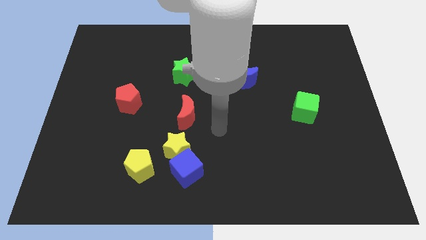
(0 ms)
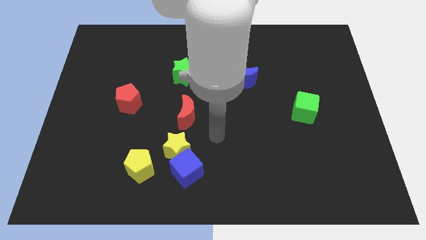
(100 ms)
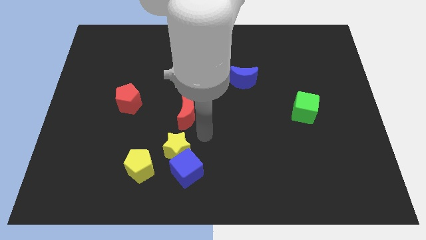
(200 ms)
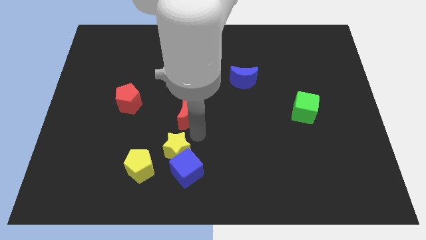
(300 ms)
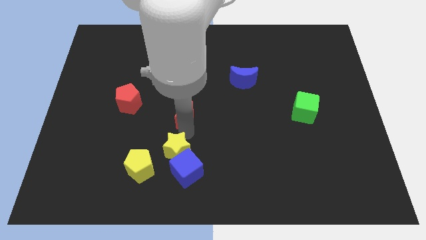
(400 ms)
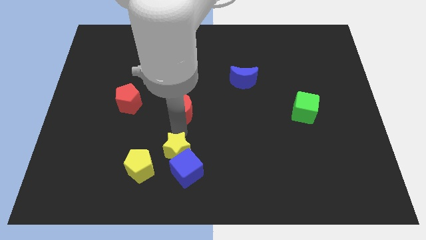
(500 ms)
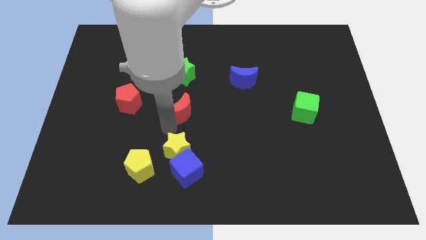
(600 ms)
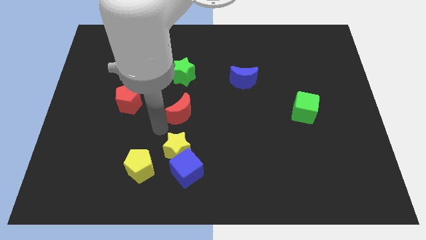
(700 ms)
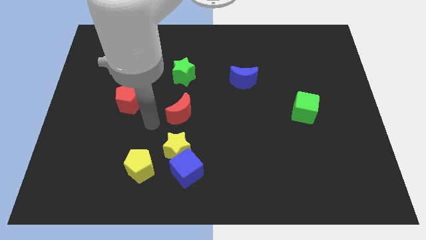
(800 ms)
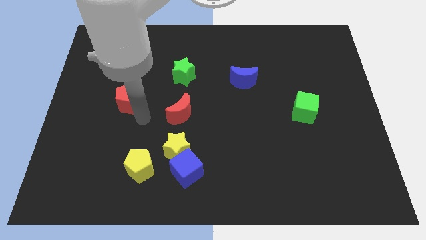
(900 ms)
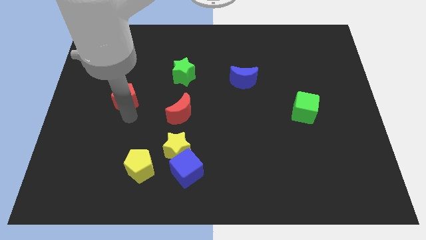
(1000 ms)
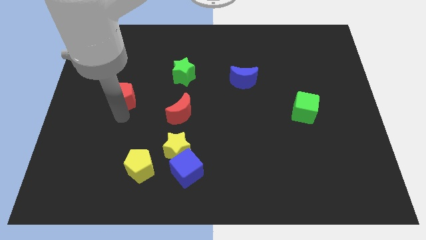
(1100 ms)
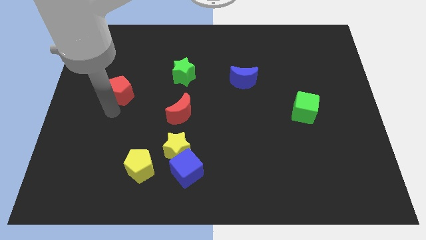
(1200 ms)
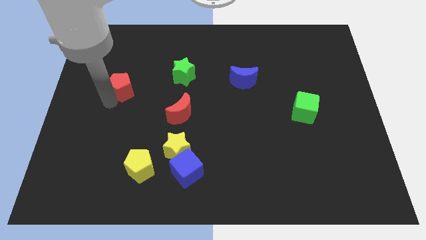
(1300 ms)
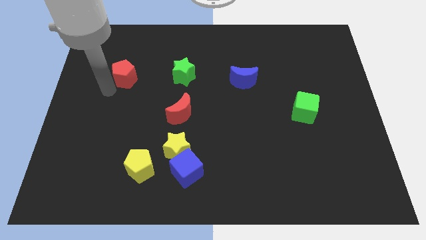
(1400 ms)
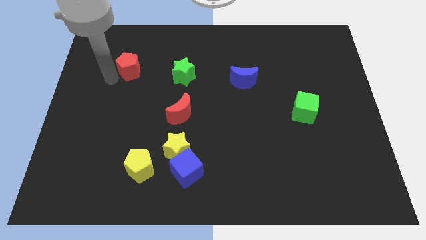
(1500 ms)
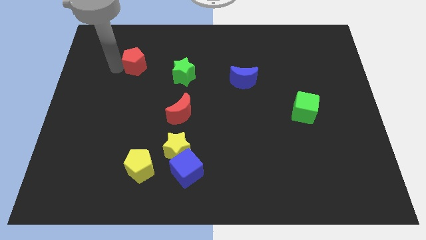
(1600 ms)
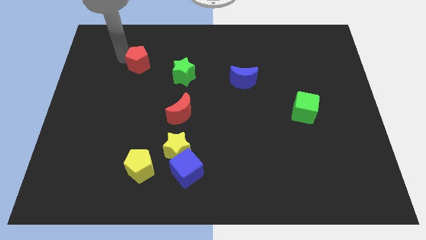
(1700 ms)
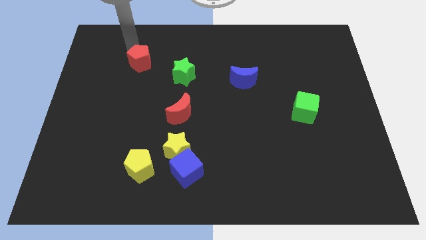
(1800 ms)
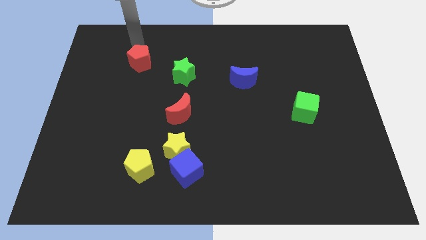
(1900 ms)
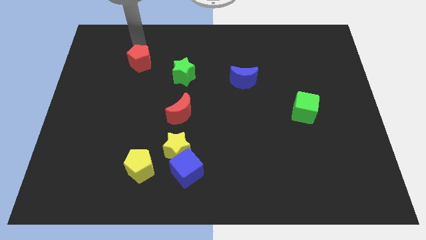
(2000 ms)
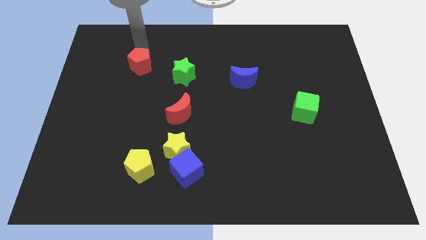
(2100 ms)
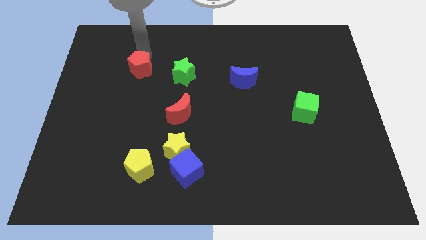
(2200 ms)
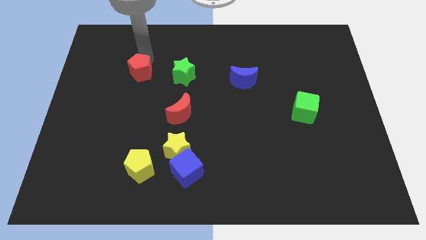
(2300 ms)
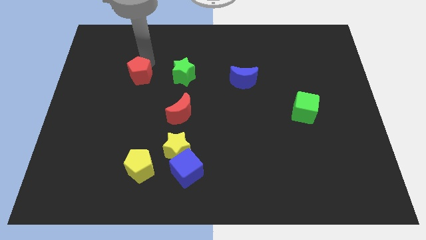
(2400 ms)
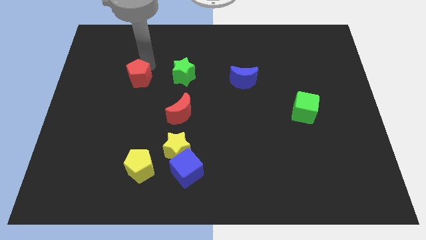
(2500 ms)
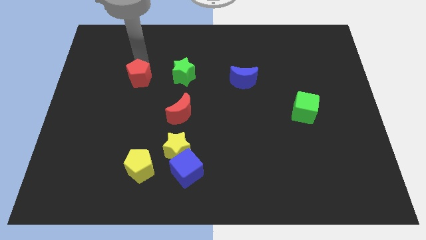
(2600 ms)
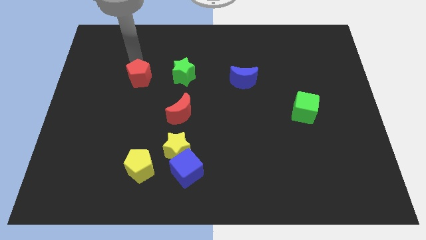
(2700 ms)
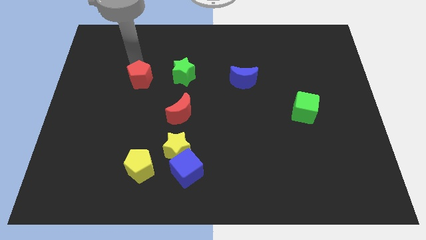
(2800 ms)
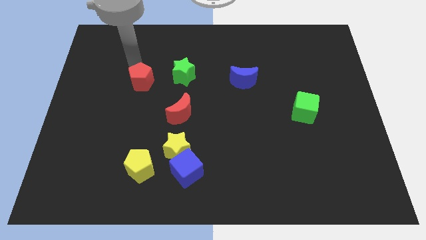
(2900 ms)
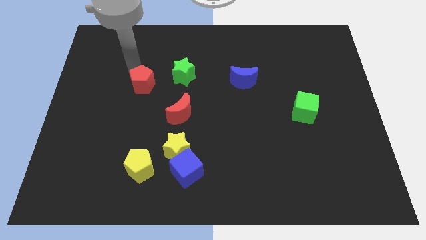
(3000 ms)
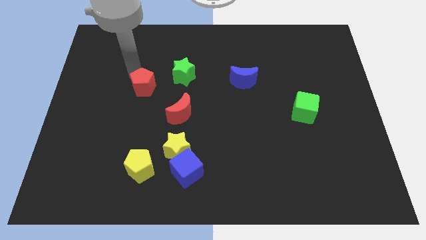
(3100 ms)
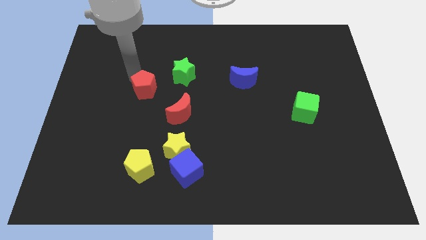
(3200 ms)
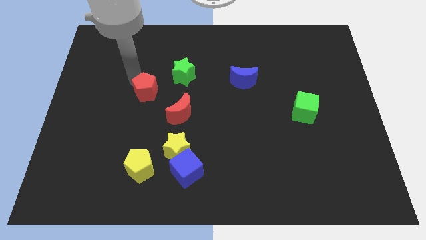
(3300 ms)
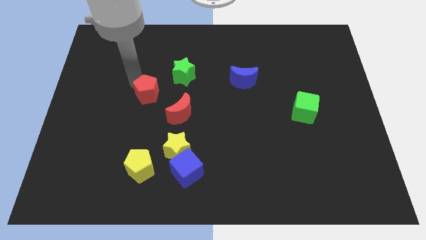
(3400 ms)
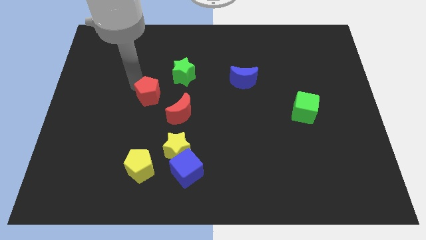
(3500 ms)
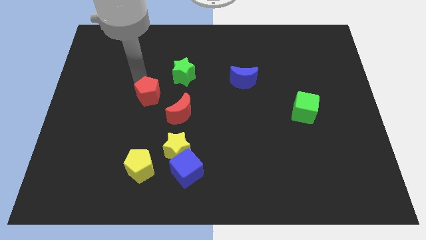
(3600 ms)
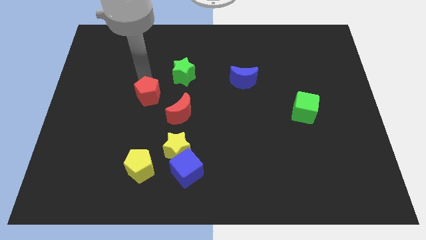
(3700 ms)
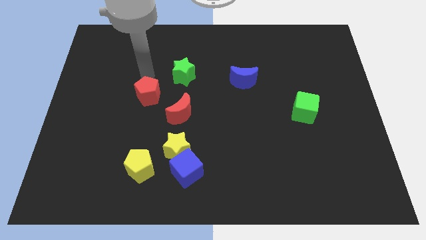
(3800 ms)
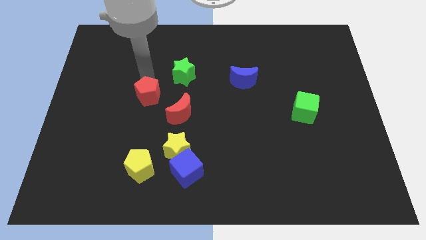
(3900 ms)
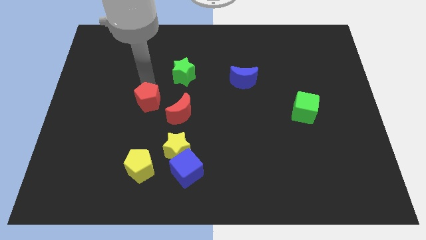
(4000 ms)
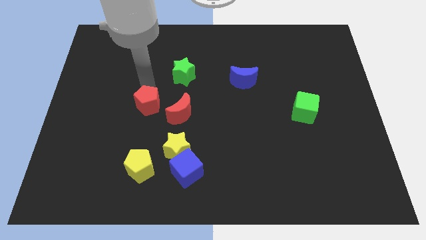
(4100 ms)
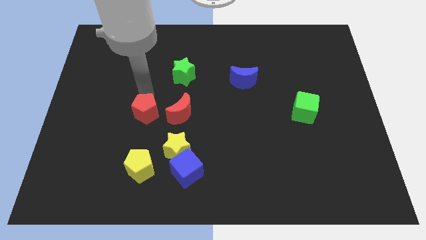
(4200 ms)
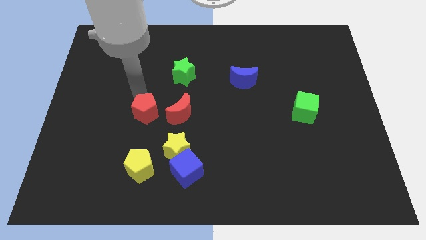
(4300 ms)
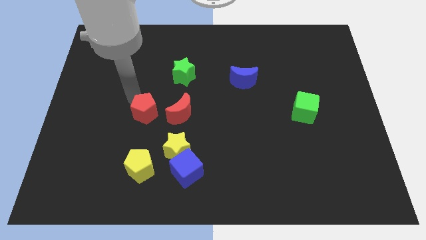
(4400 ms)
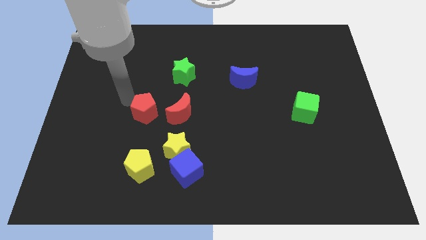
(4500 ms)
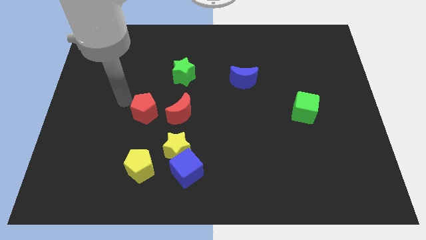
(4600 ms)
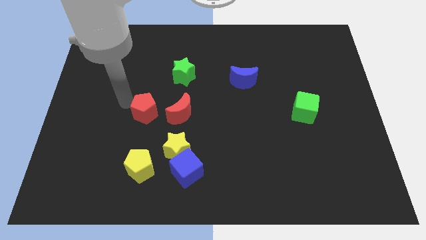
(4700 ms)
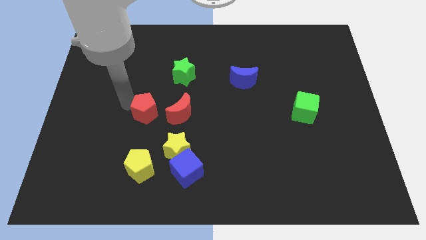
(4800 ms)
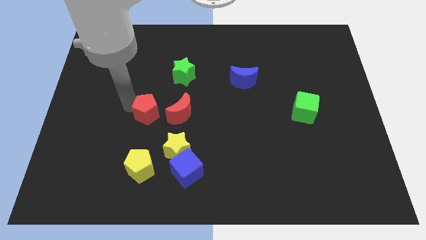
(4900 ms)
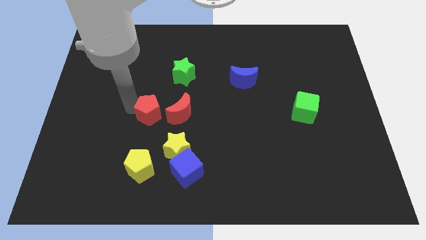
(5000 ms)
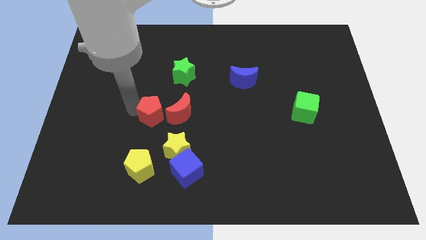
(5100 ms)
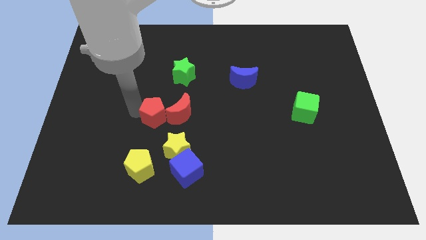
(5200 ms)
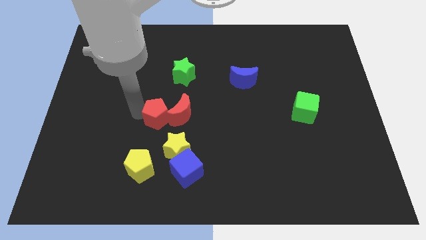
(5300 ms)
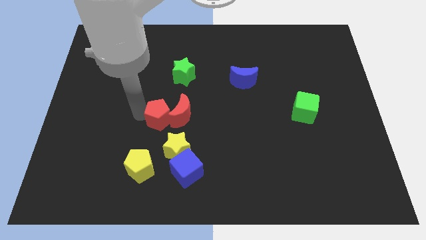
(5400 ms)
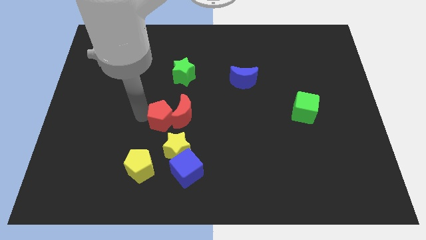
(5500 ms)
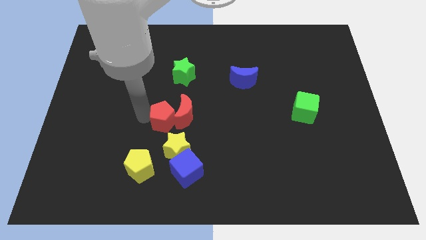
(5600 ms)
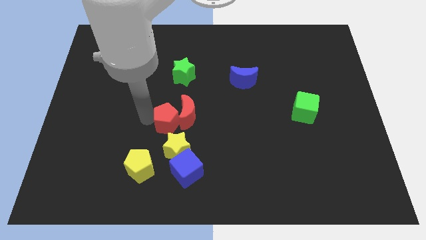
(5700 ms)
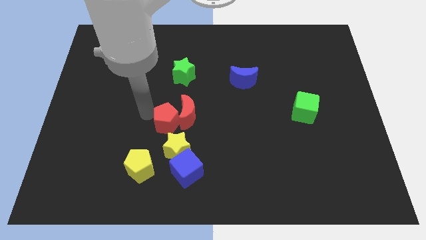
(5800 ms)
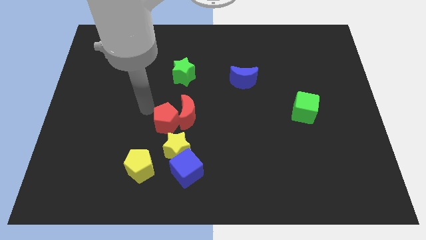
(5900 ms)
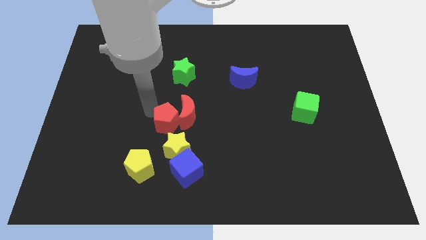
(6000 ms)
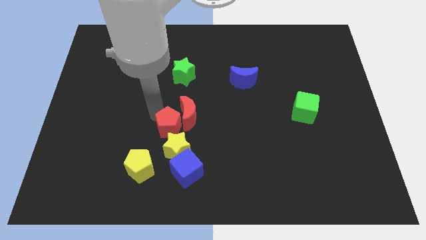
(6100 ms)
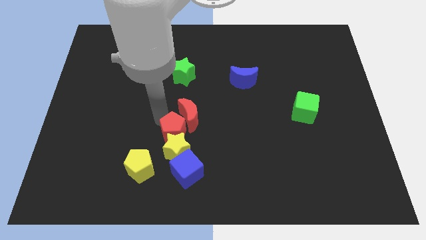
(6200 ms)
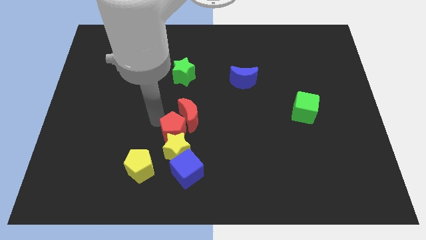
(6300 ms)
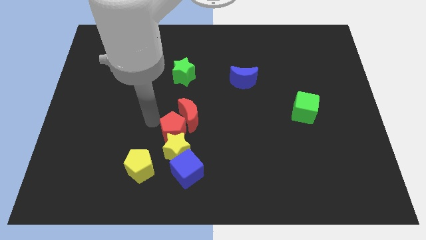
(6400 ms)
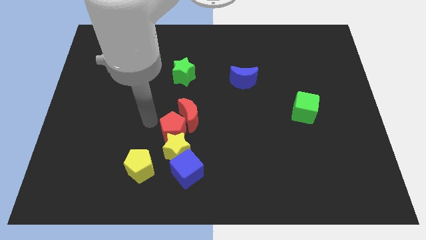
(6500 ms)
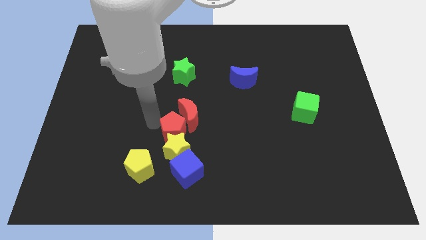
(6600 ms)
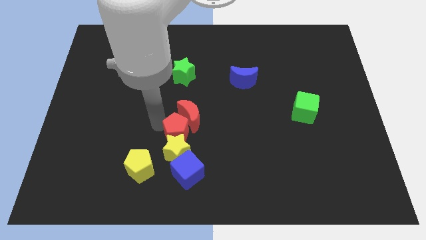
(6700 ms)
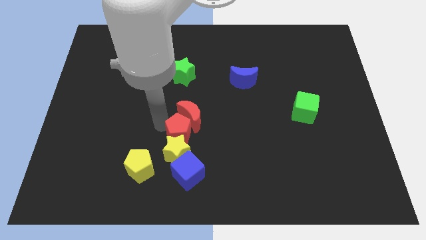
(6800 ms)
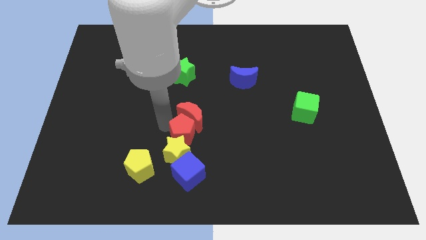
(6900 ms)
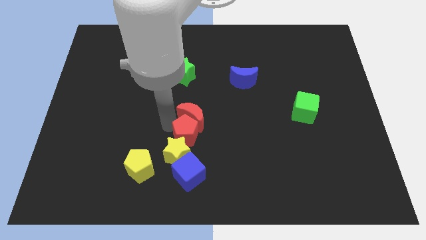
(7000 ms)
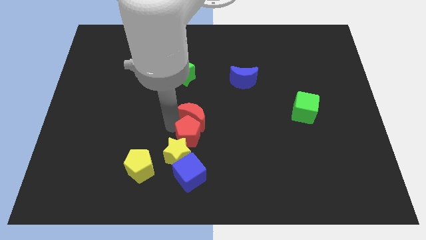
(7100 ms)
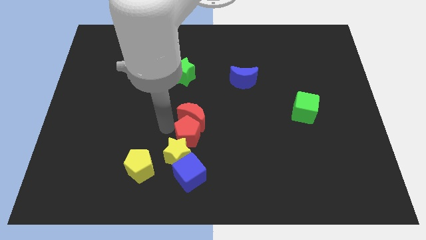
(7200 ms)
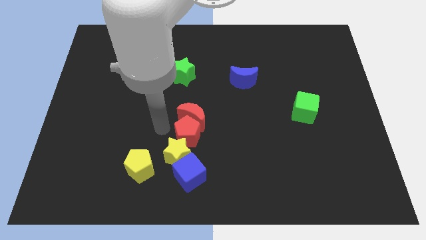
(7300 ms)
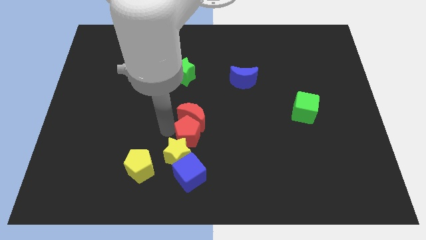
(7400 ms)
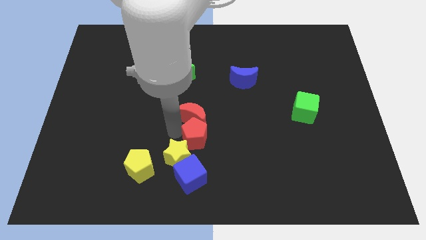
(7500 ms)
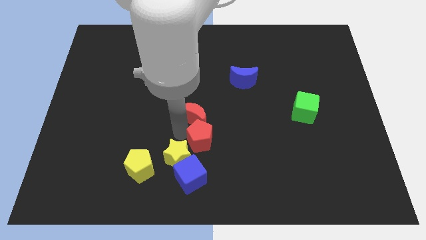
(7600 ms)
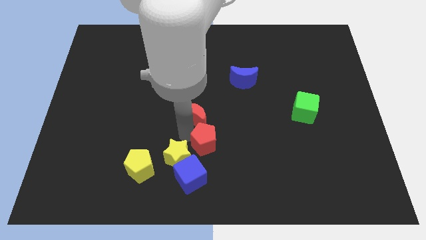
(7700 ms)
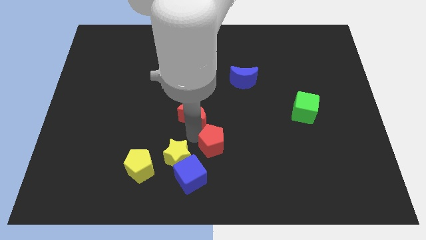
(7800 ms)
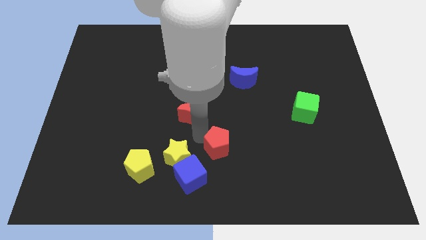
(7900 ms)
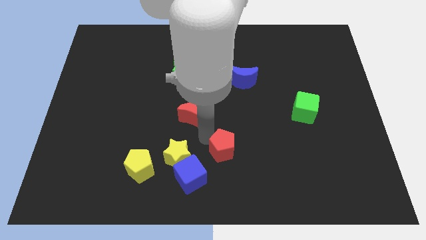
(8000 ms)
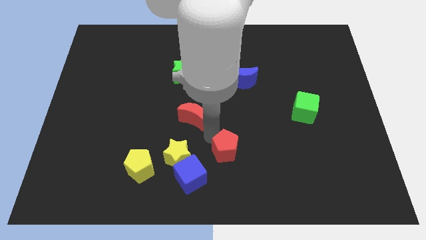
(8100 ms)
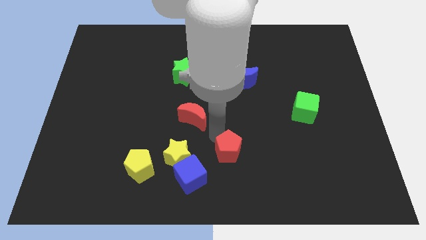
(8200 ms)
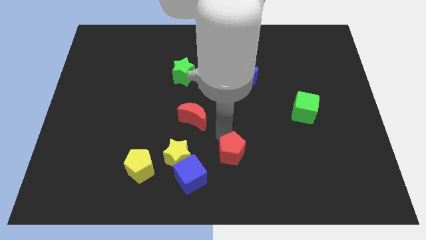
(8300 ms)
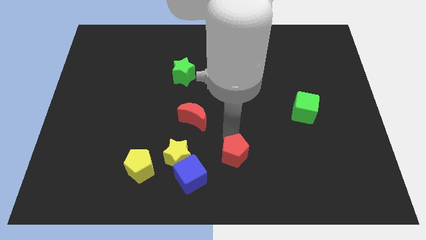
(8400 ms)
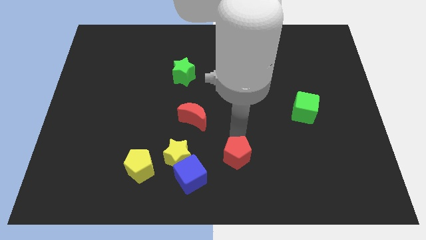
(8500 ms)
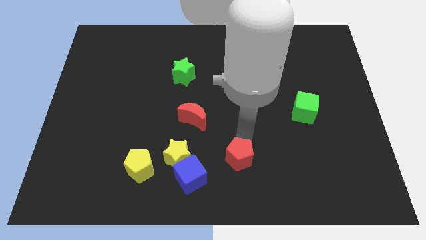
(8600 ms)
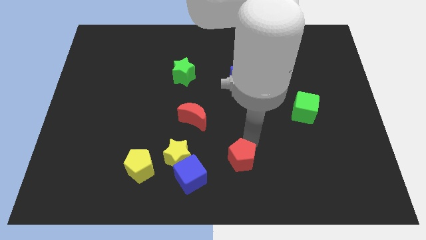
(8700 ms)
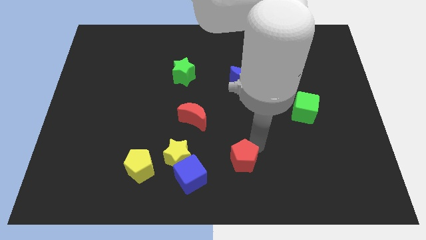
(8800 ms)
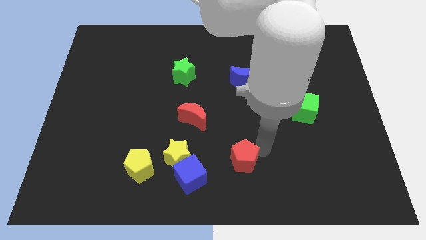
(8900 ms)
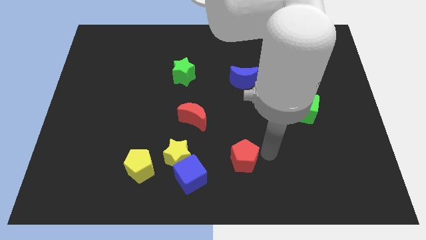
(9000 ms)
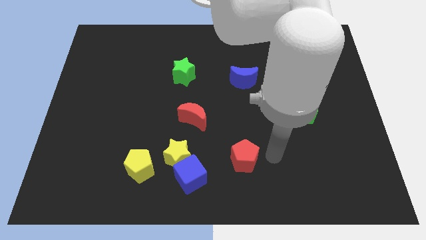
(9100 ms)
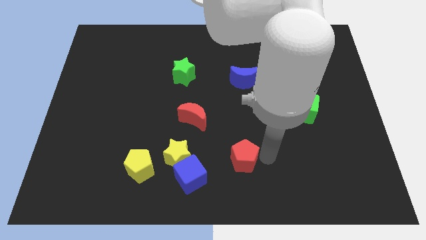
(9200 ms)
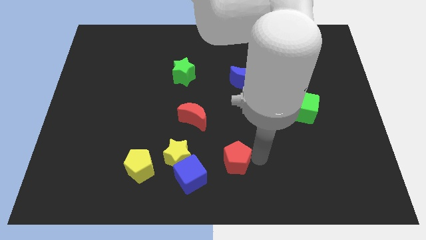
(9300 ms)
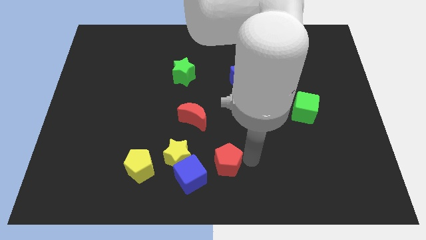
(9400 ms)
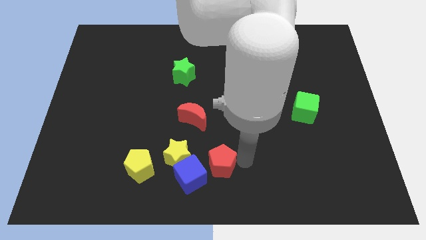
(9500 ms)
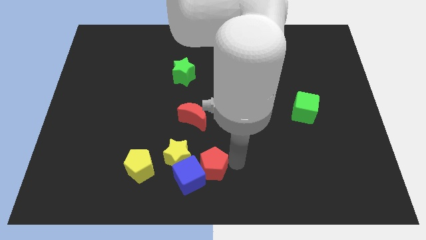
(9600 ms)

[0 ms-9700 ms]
slide the red pentagon right of the yellow pentagon
